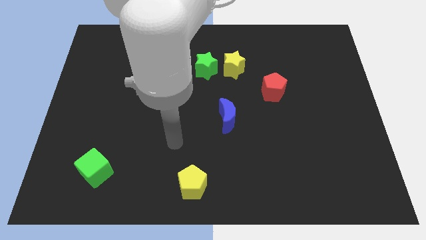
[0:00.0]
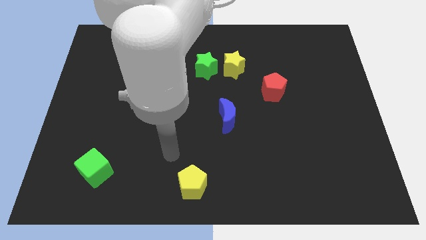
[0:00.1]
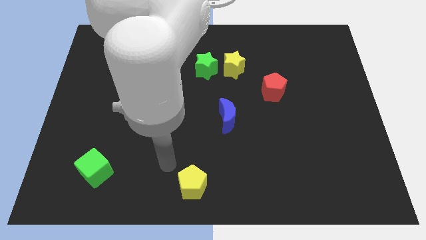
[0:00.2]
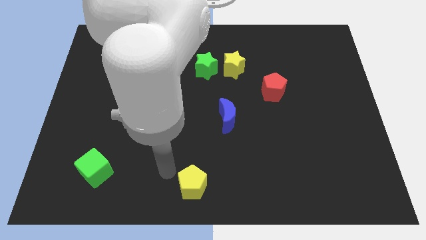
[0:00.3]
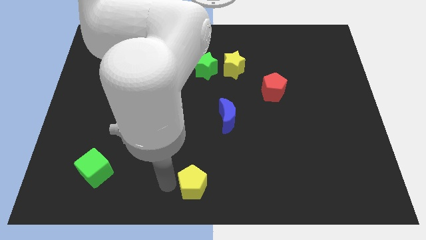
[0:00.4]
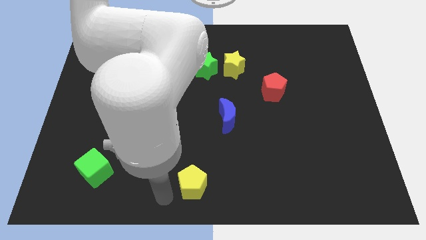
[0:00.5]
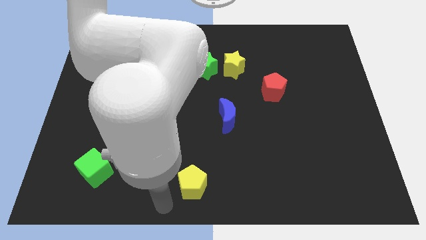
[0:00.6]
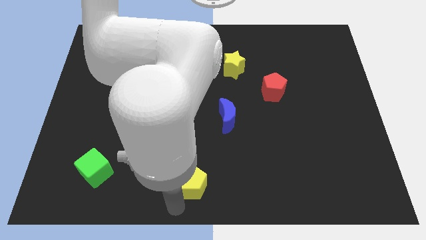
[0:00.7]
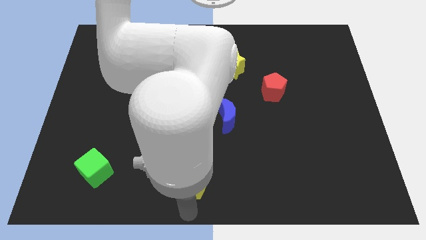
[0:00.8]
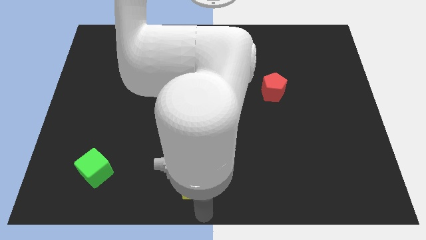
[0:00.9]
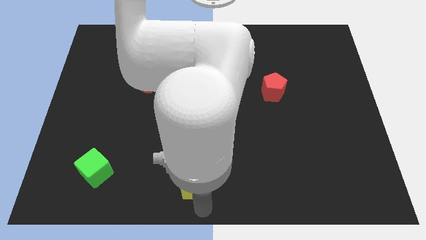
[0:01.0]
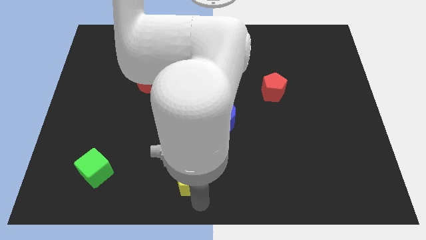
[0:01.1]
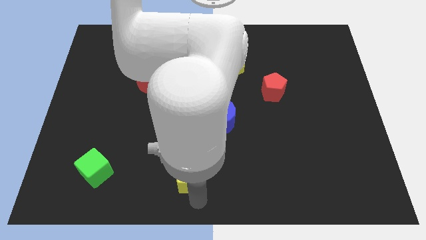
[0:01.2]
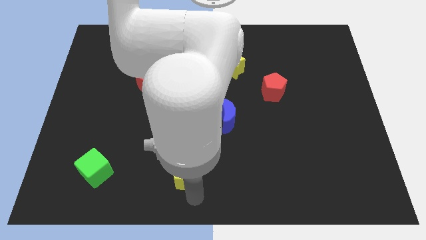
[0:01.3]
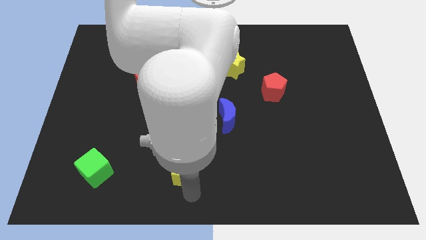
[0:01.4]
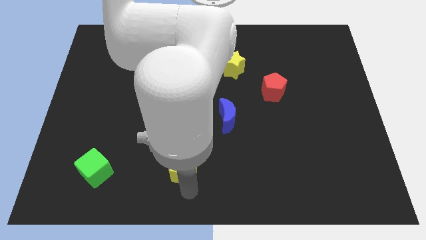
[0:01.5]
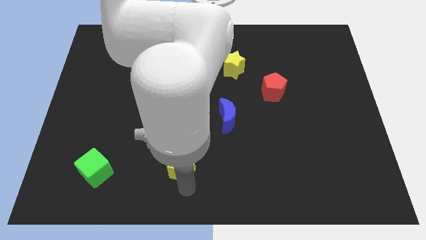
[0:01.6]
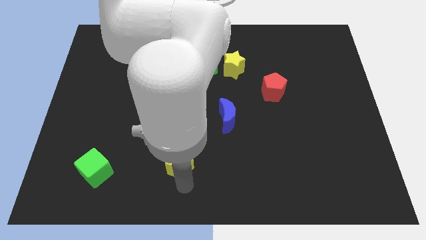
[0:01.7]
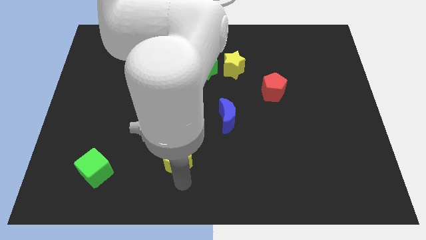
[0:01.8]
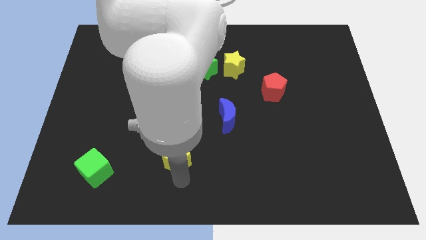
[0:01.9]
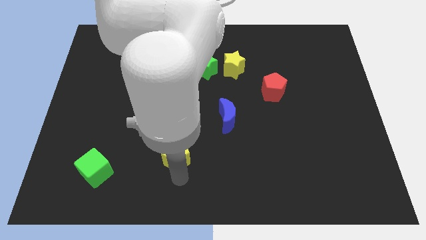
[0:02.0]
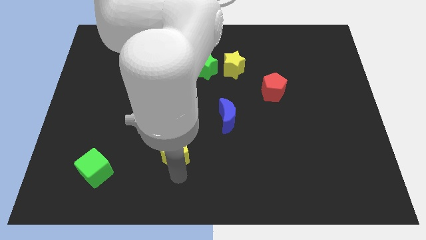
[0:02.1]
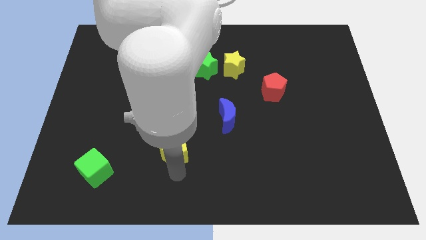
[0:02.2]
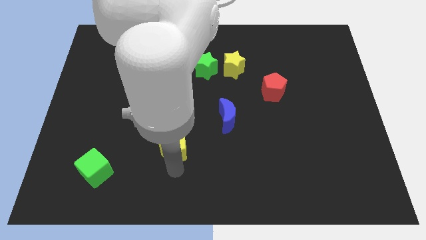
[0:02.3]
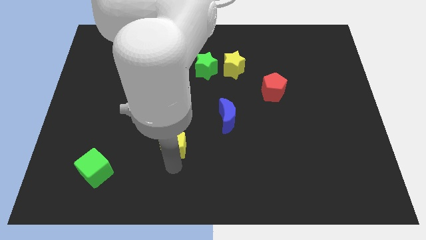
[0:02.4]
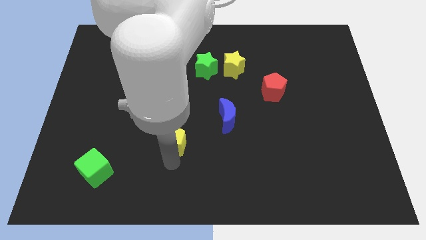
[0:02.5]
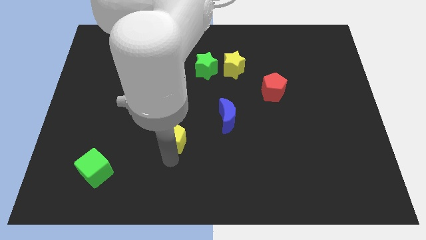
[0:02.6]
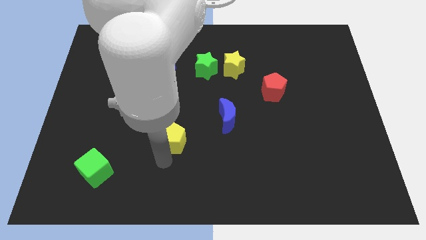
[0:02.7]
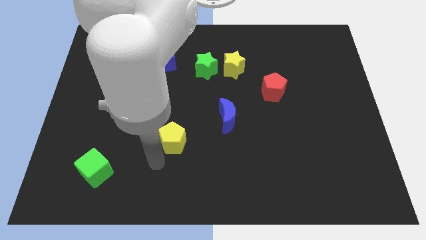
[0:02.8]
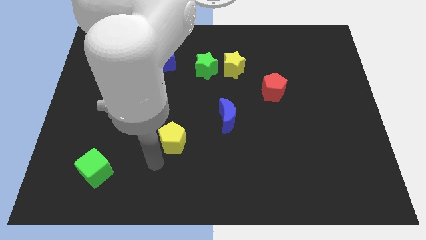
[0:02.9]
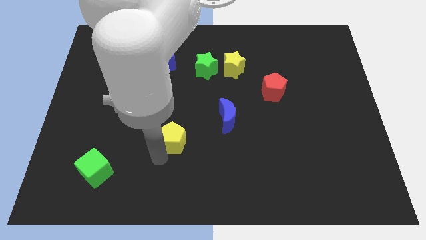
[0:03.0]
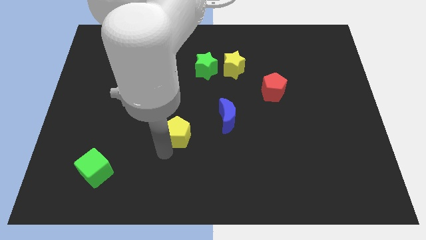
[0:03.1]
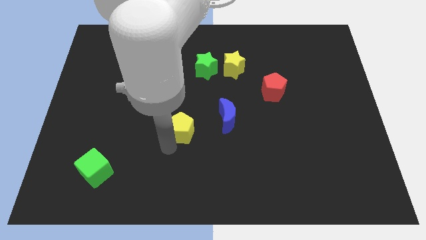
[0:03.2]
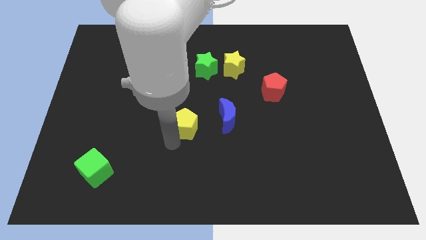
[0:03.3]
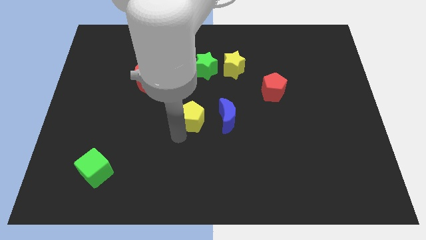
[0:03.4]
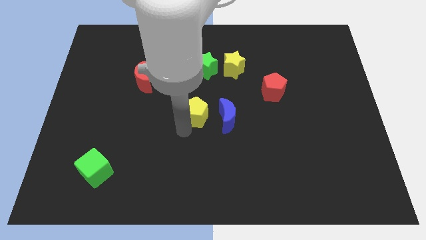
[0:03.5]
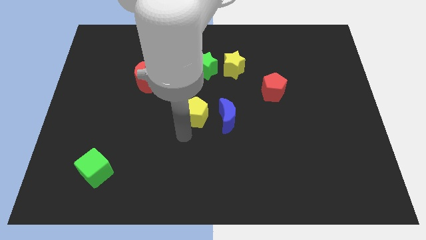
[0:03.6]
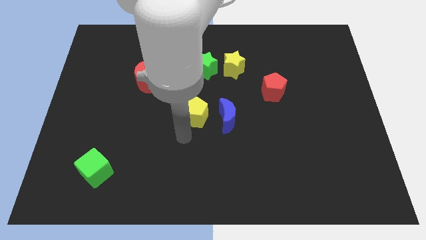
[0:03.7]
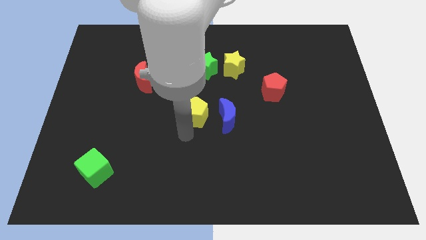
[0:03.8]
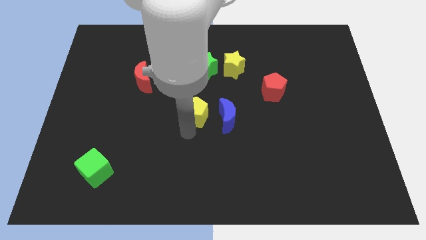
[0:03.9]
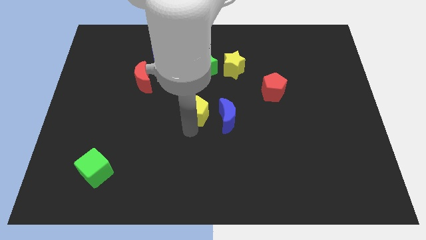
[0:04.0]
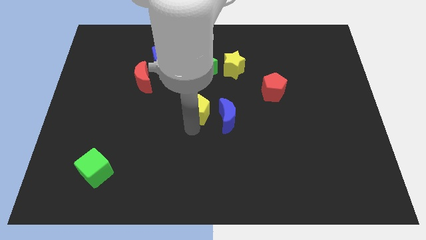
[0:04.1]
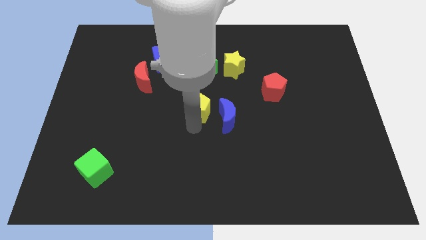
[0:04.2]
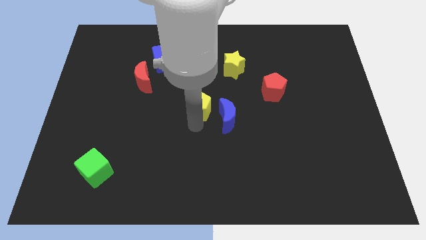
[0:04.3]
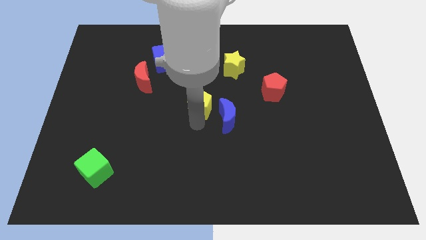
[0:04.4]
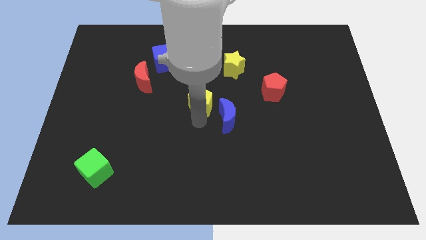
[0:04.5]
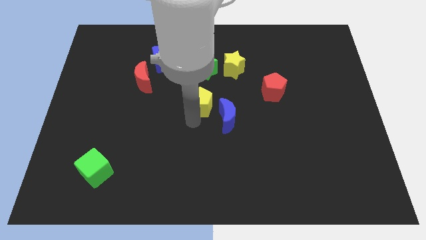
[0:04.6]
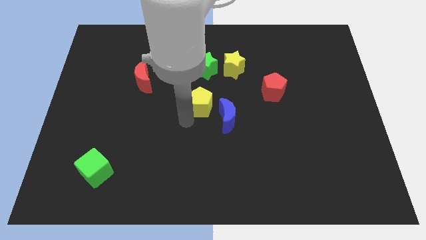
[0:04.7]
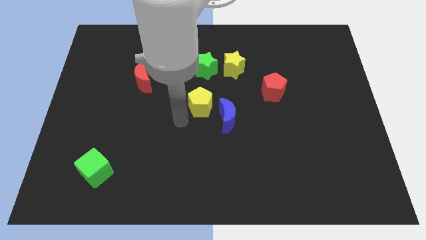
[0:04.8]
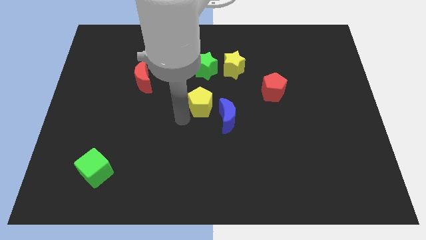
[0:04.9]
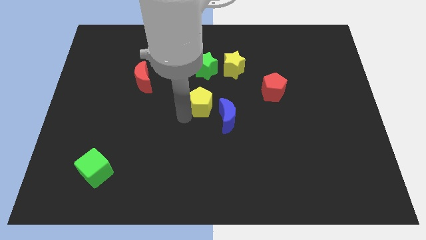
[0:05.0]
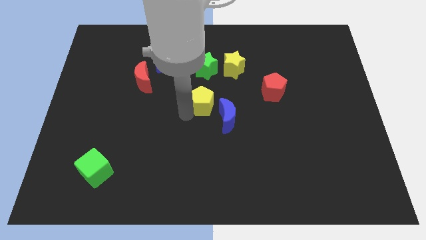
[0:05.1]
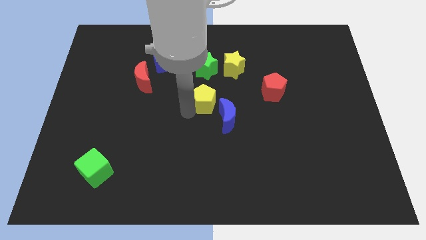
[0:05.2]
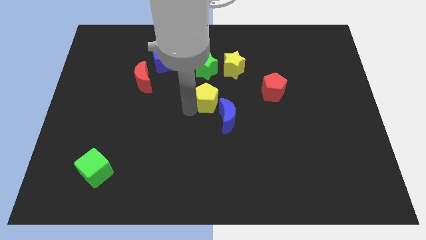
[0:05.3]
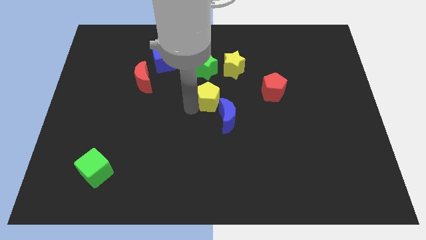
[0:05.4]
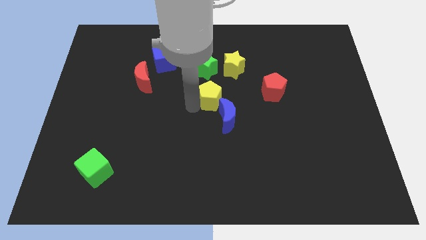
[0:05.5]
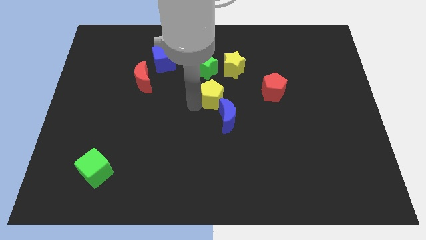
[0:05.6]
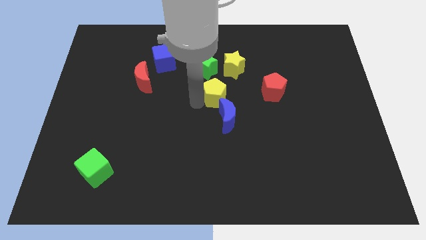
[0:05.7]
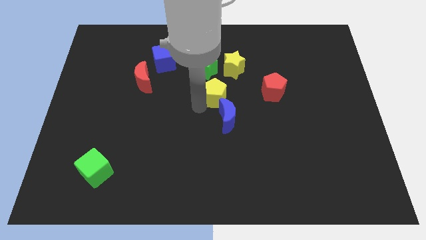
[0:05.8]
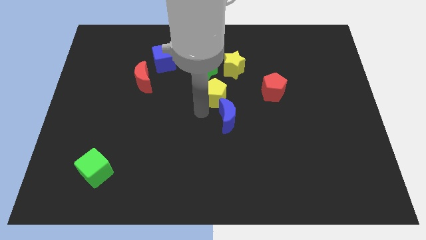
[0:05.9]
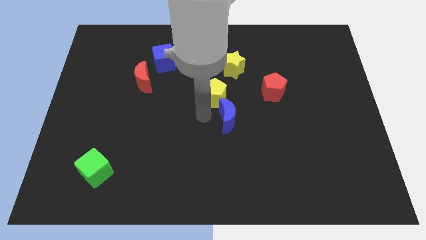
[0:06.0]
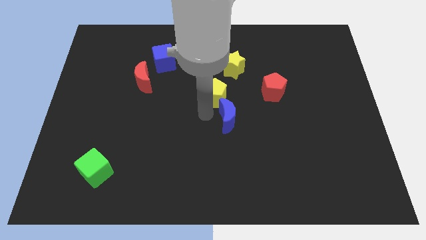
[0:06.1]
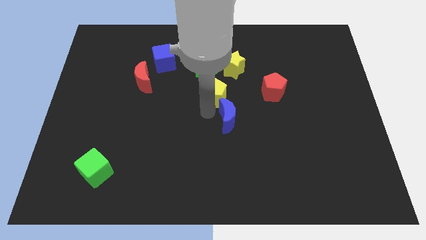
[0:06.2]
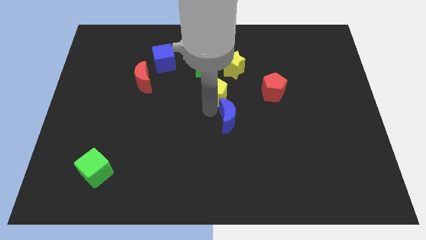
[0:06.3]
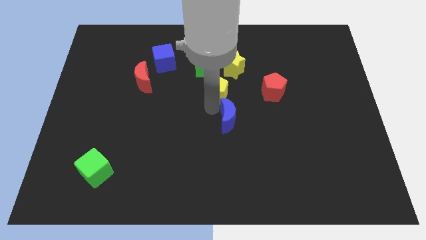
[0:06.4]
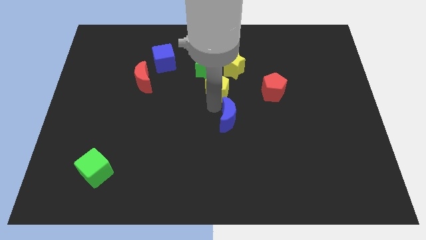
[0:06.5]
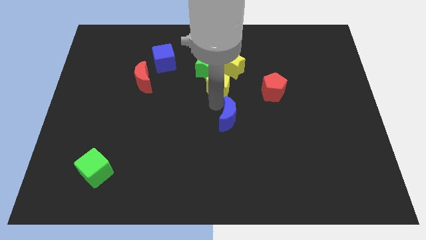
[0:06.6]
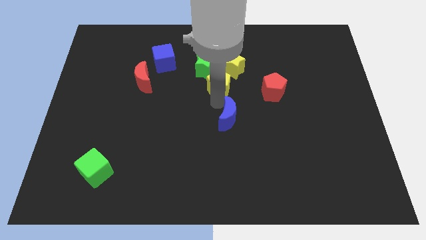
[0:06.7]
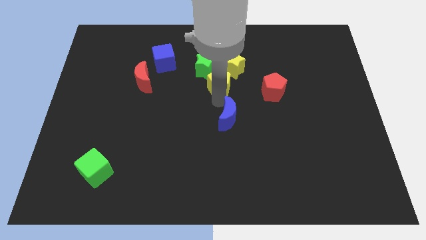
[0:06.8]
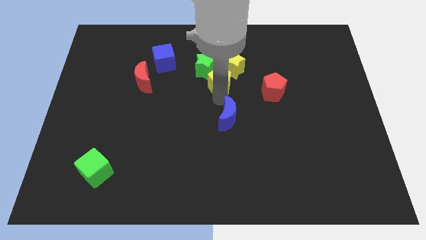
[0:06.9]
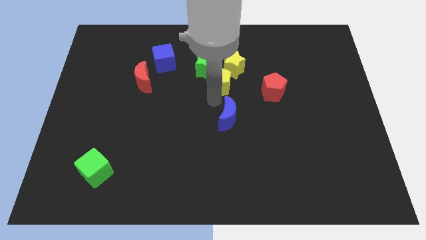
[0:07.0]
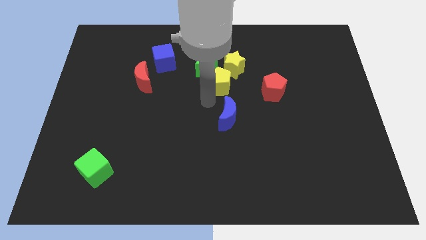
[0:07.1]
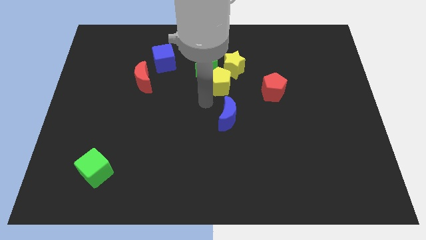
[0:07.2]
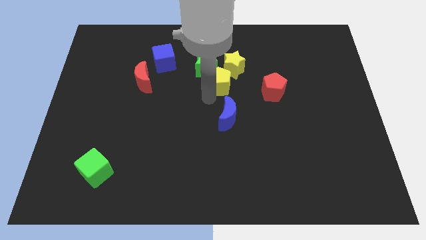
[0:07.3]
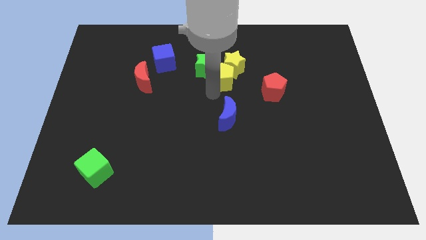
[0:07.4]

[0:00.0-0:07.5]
slide the yellow pentagon close to the yellow star
